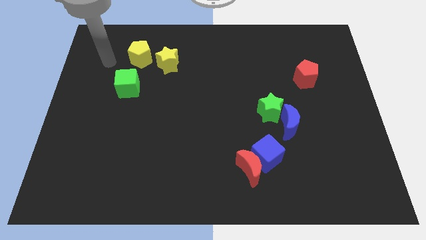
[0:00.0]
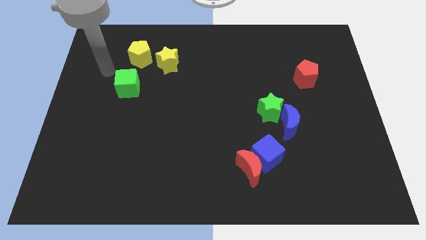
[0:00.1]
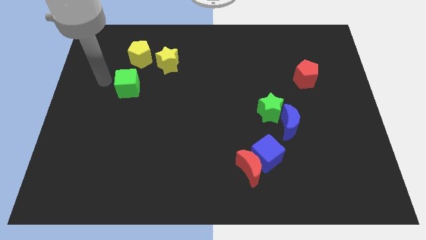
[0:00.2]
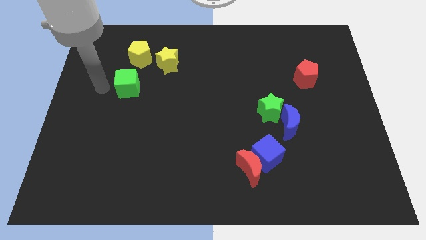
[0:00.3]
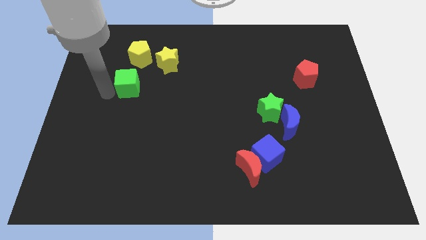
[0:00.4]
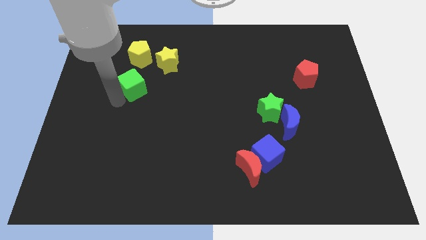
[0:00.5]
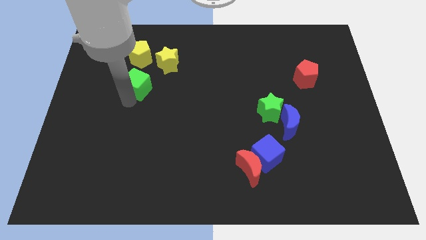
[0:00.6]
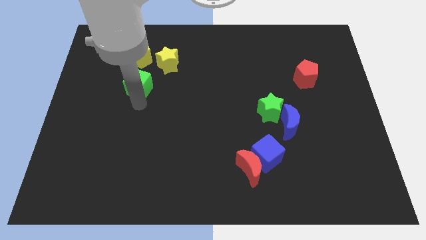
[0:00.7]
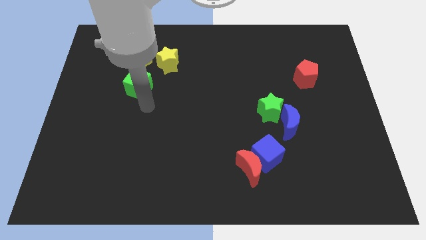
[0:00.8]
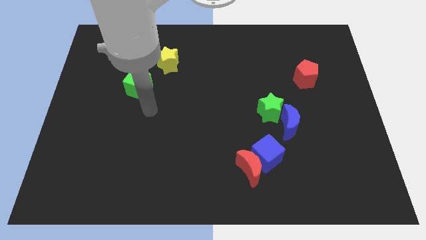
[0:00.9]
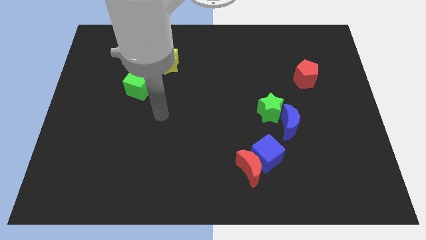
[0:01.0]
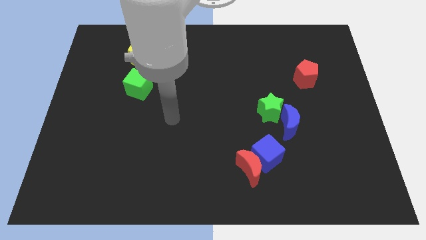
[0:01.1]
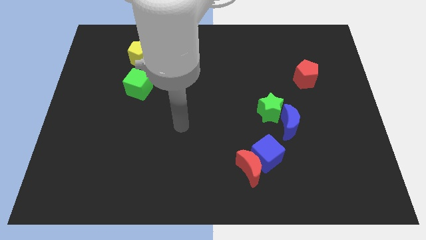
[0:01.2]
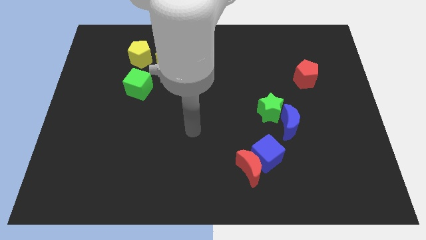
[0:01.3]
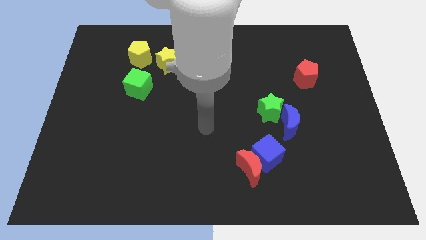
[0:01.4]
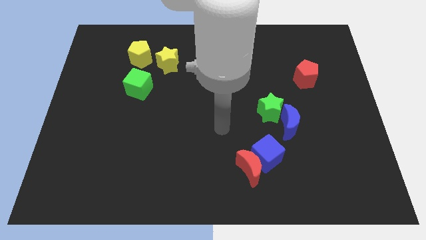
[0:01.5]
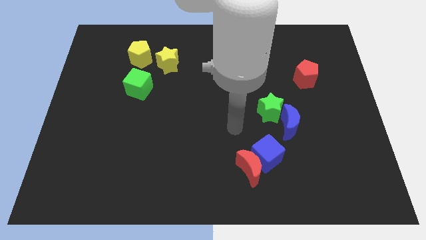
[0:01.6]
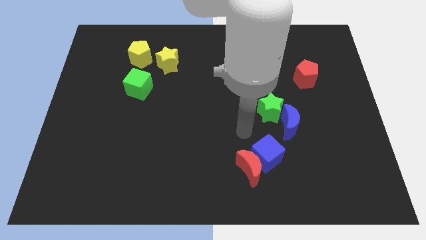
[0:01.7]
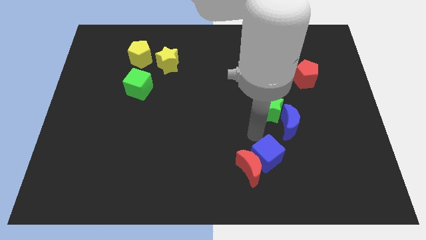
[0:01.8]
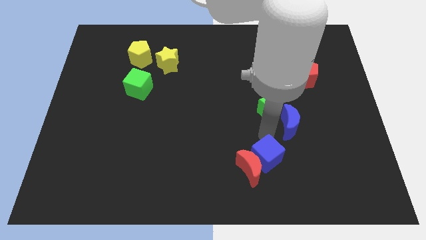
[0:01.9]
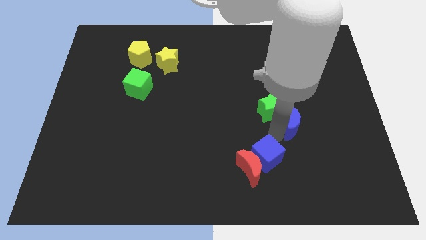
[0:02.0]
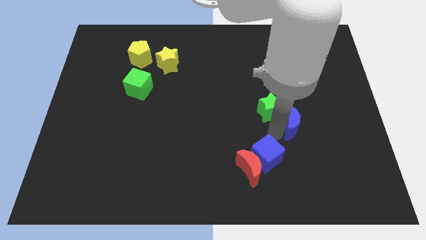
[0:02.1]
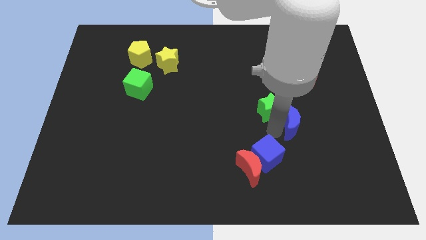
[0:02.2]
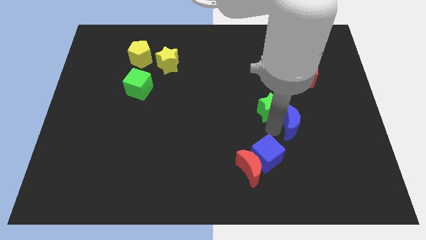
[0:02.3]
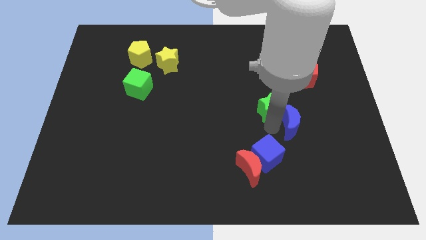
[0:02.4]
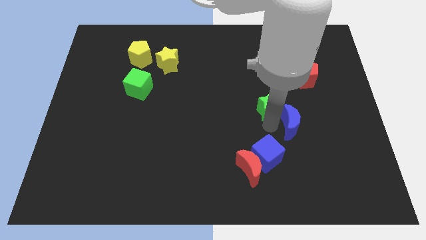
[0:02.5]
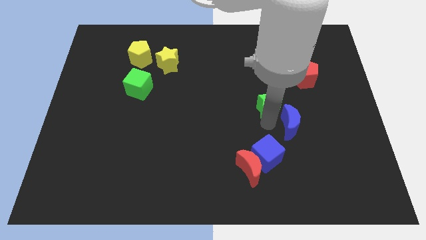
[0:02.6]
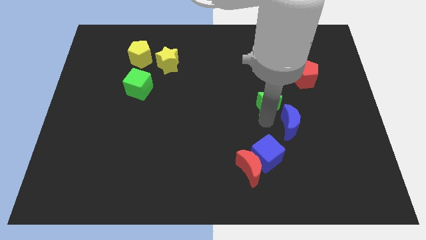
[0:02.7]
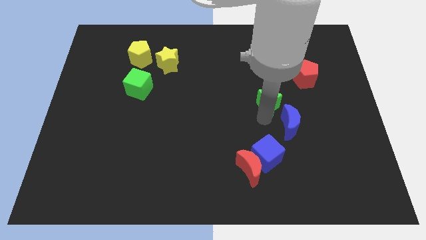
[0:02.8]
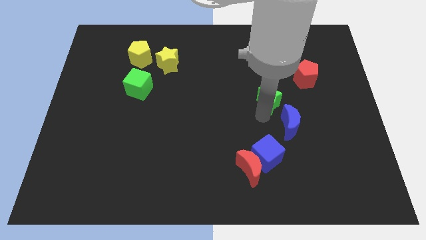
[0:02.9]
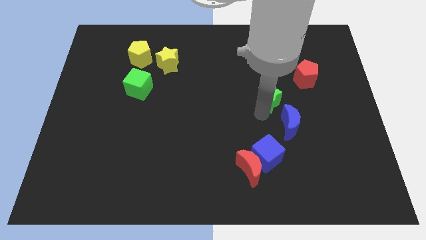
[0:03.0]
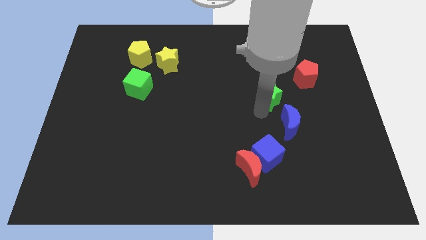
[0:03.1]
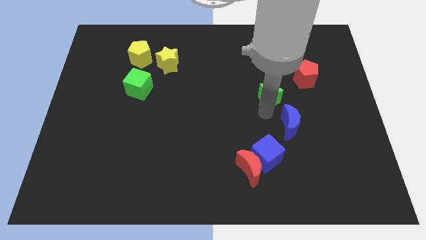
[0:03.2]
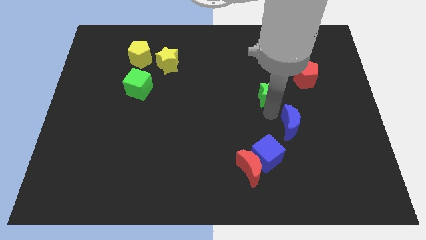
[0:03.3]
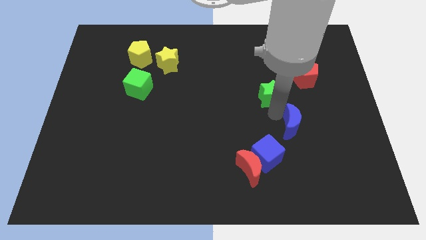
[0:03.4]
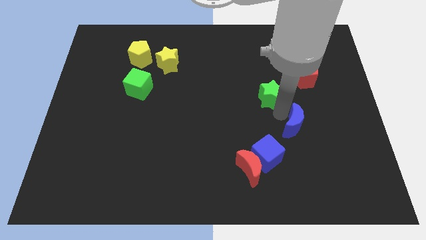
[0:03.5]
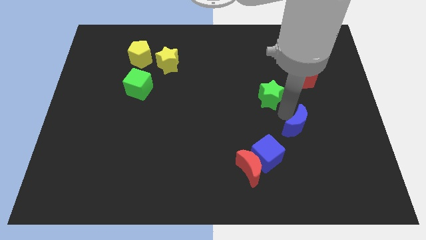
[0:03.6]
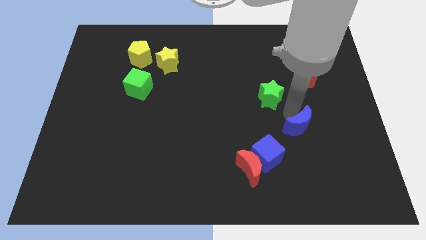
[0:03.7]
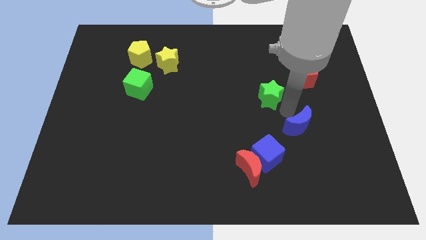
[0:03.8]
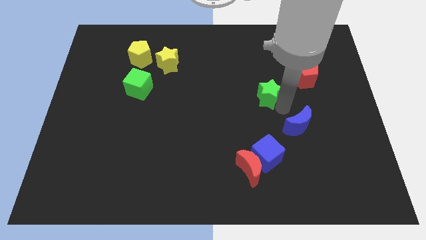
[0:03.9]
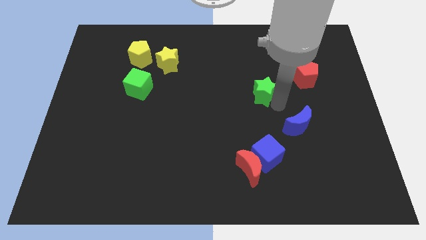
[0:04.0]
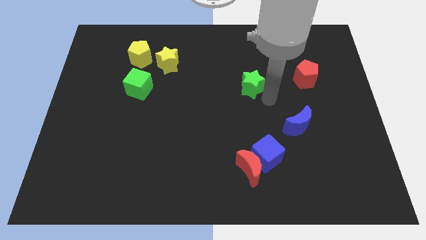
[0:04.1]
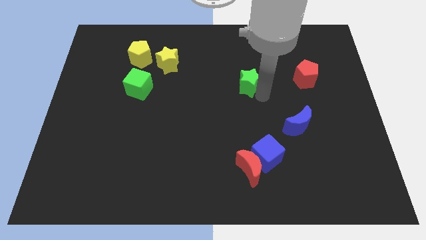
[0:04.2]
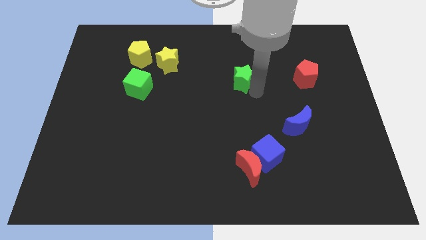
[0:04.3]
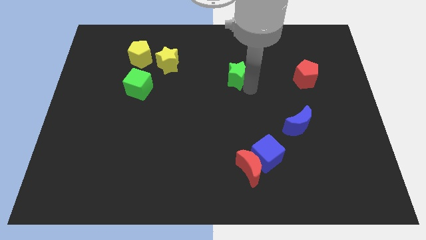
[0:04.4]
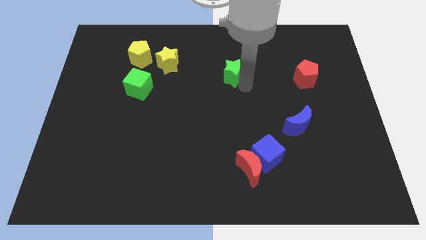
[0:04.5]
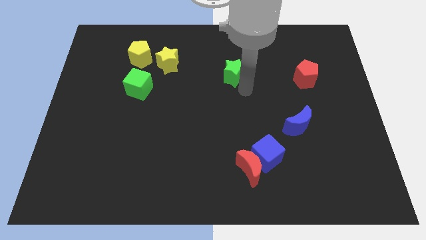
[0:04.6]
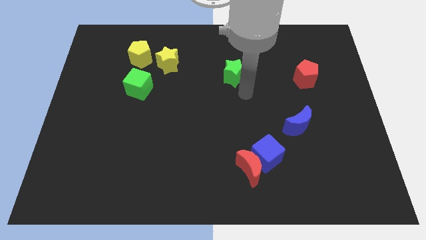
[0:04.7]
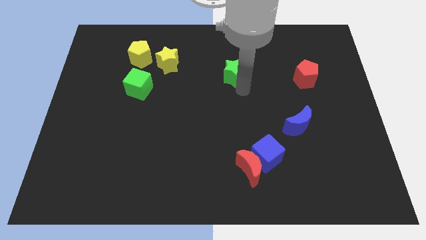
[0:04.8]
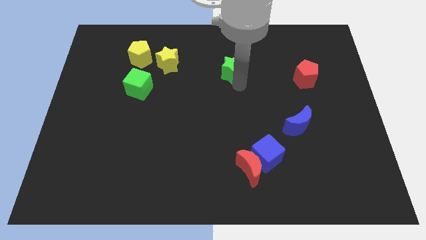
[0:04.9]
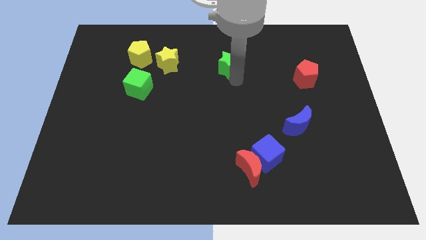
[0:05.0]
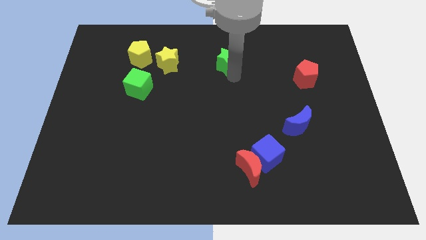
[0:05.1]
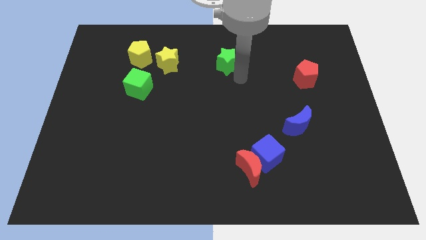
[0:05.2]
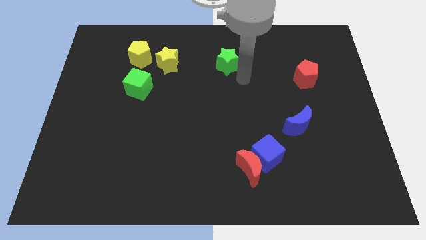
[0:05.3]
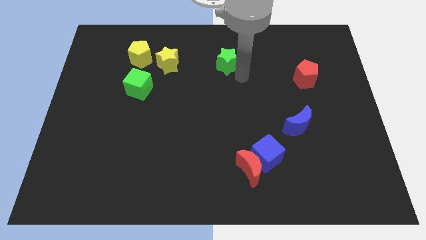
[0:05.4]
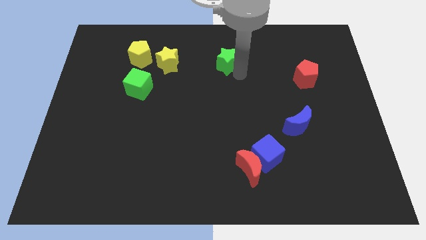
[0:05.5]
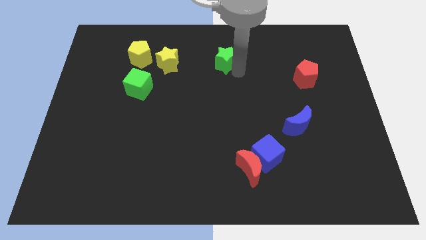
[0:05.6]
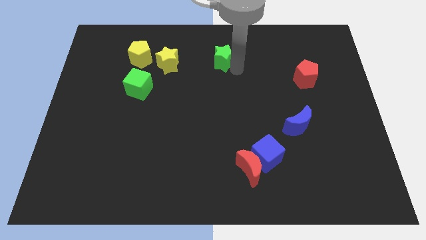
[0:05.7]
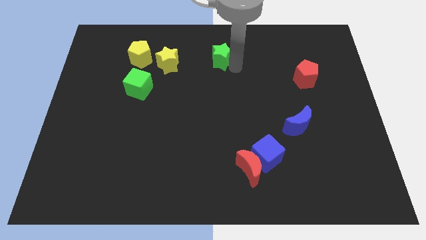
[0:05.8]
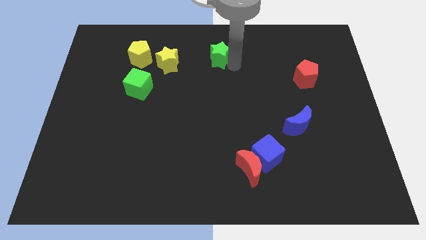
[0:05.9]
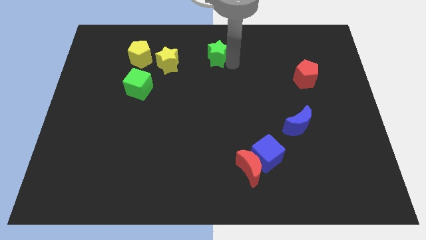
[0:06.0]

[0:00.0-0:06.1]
slide the green star to the top side
